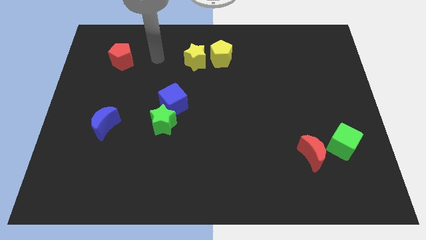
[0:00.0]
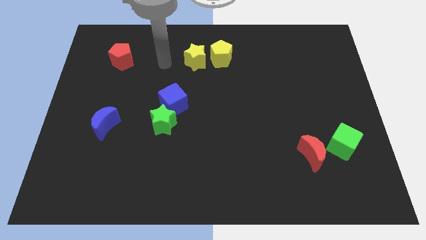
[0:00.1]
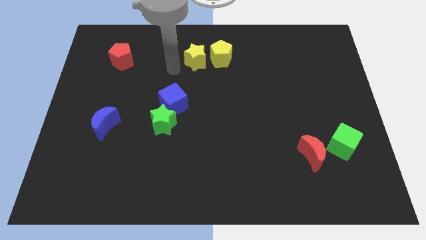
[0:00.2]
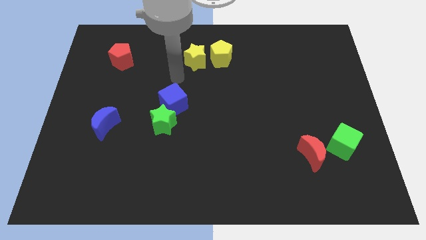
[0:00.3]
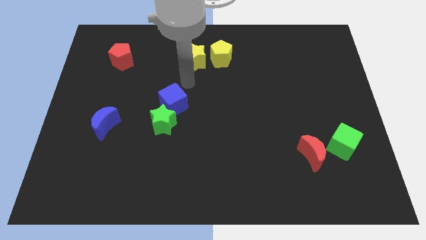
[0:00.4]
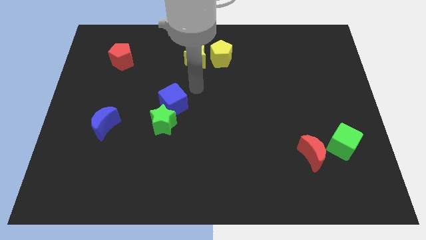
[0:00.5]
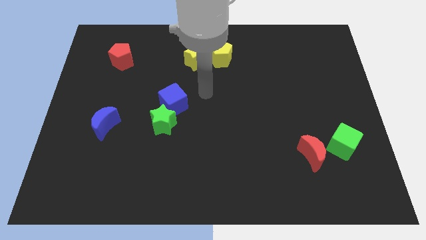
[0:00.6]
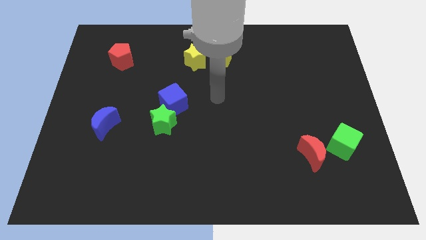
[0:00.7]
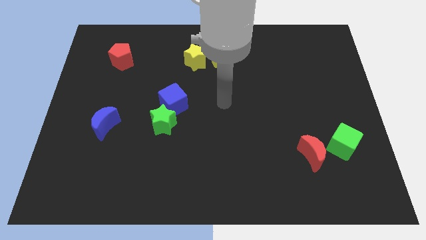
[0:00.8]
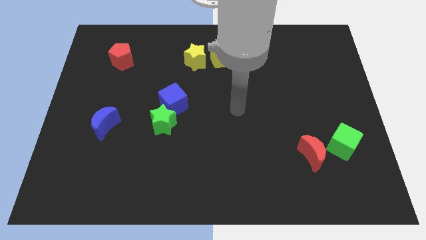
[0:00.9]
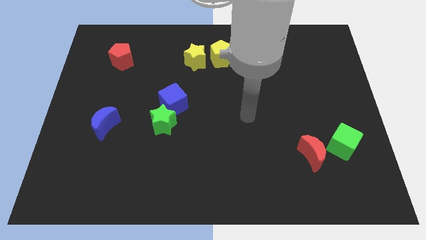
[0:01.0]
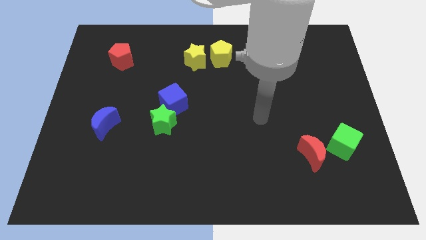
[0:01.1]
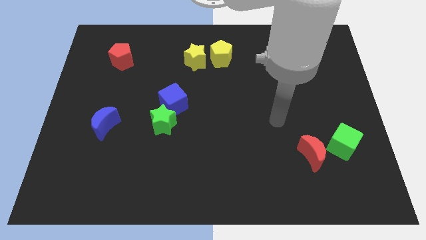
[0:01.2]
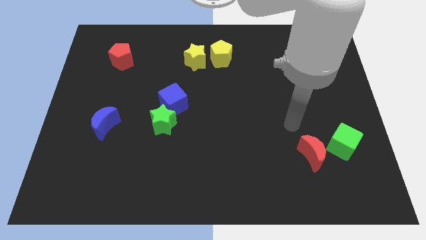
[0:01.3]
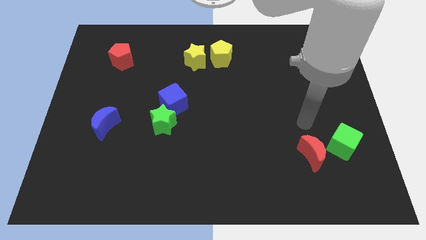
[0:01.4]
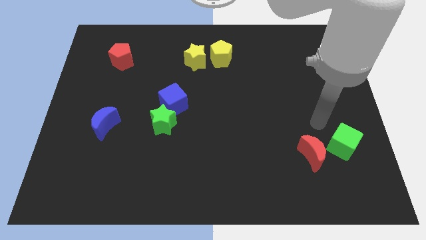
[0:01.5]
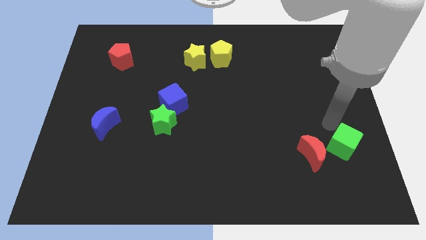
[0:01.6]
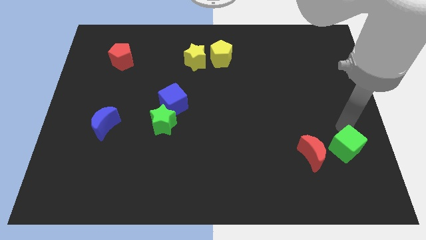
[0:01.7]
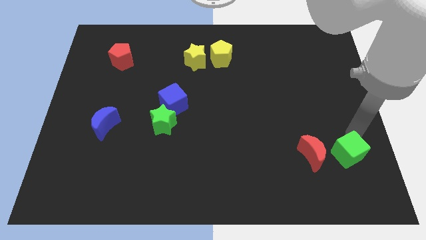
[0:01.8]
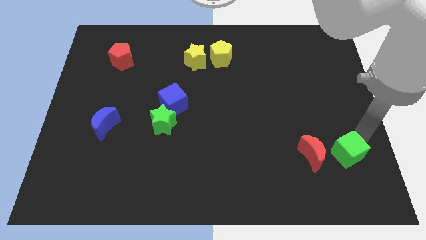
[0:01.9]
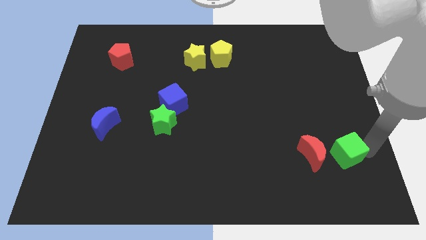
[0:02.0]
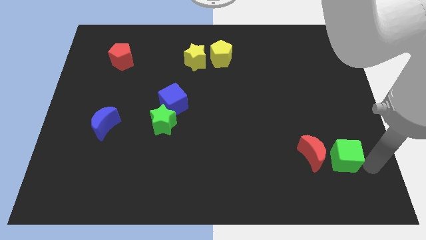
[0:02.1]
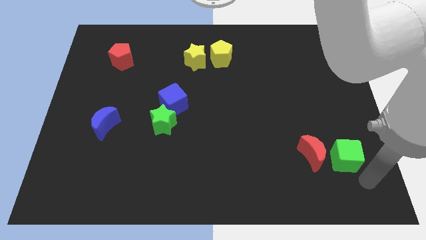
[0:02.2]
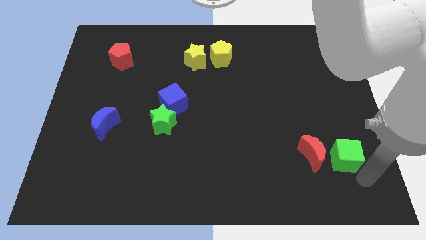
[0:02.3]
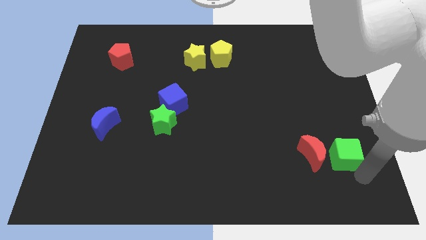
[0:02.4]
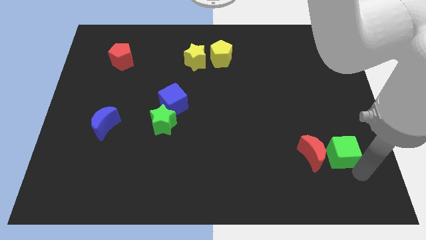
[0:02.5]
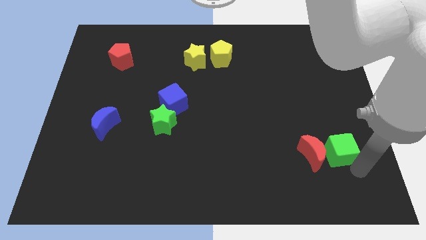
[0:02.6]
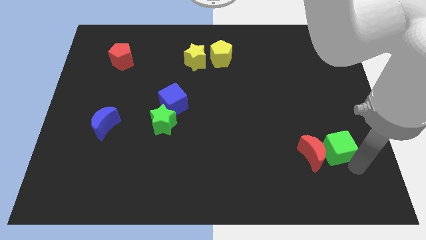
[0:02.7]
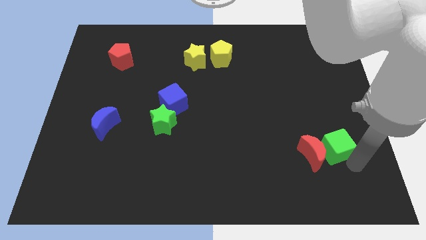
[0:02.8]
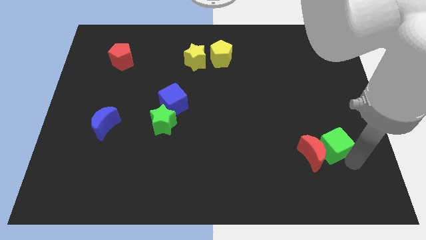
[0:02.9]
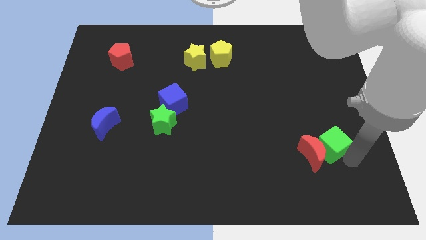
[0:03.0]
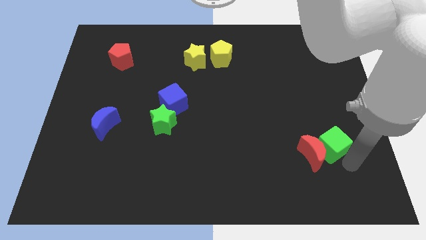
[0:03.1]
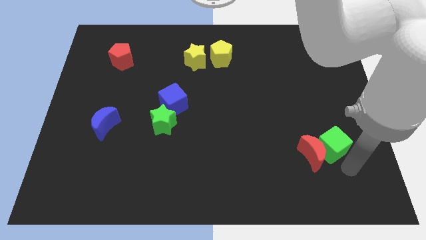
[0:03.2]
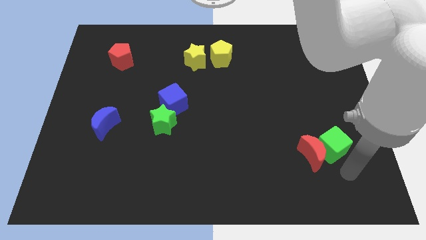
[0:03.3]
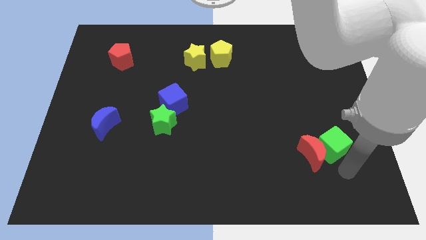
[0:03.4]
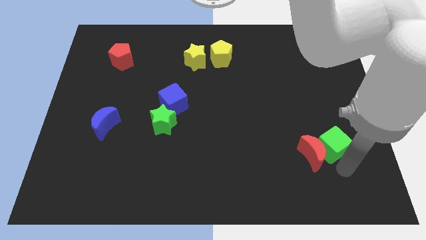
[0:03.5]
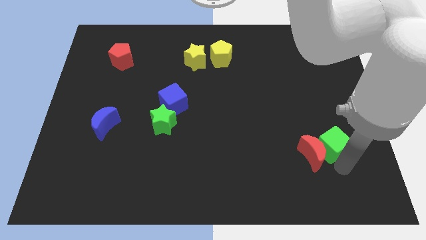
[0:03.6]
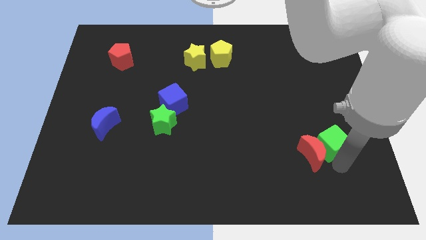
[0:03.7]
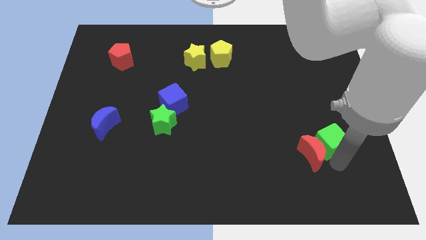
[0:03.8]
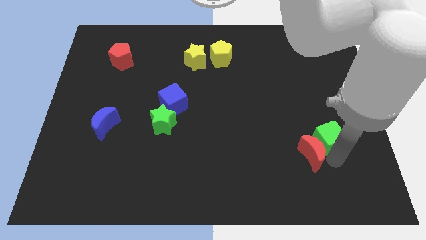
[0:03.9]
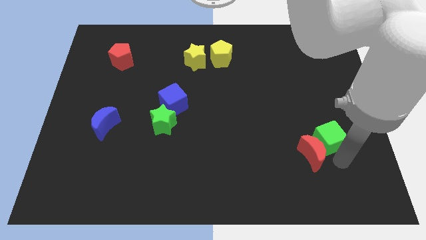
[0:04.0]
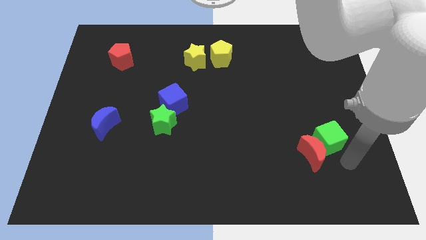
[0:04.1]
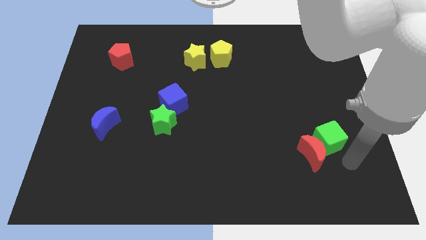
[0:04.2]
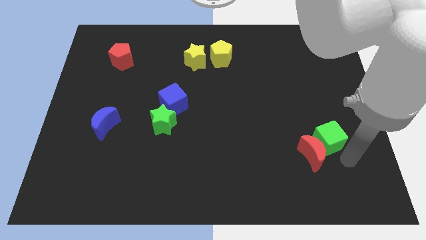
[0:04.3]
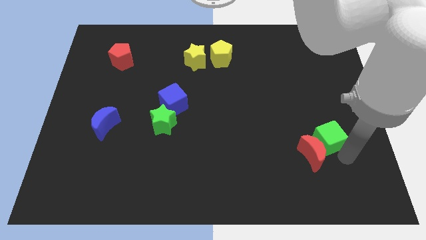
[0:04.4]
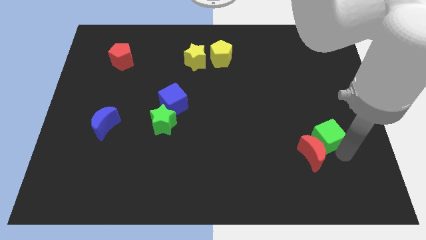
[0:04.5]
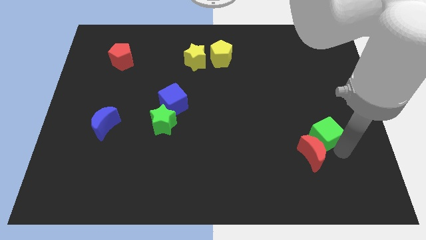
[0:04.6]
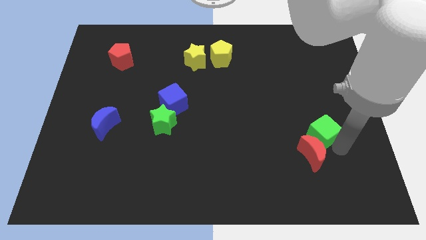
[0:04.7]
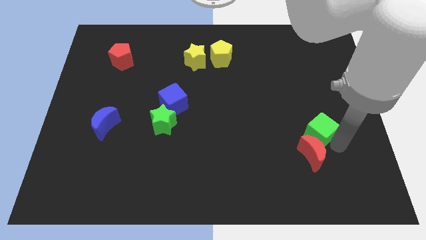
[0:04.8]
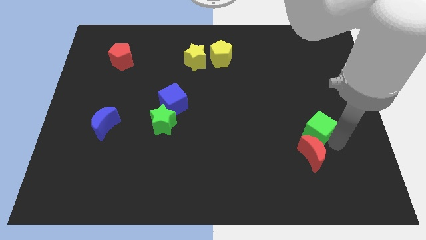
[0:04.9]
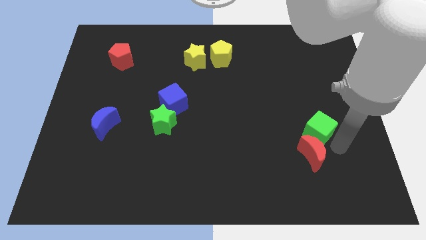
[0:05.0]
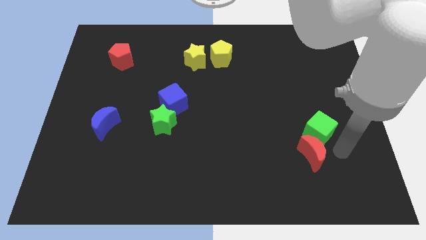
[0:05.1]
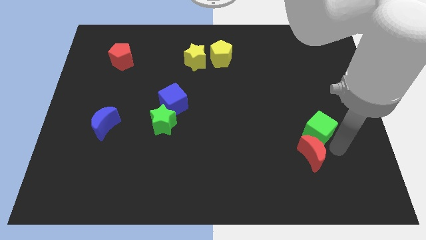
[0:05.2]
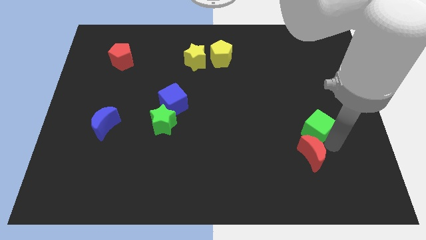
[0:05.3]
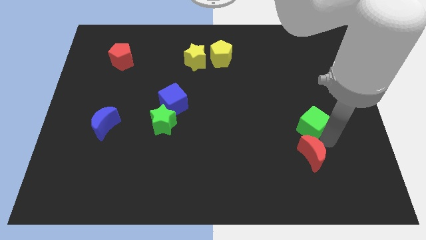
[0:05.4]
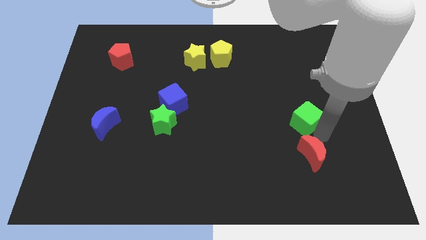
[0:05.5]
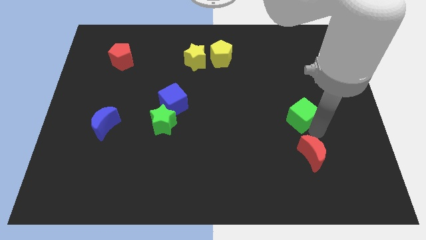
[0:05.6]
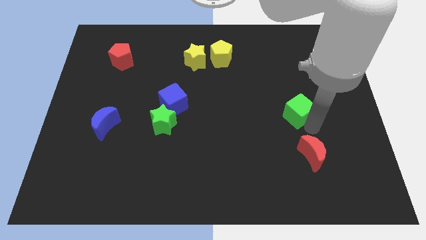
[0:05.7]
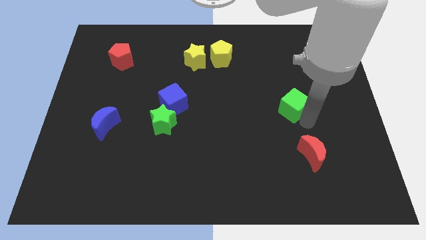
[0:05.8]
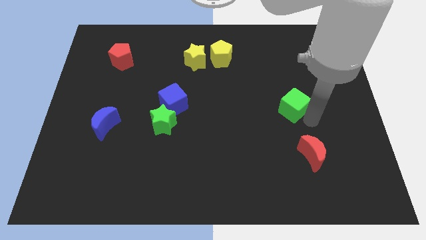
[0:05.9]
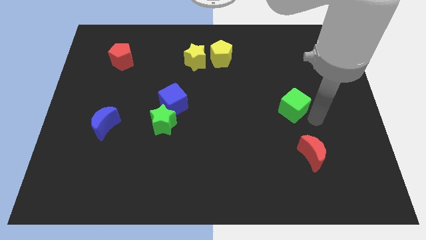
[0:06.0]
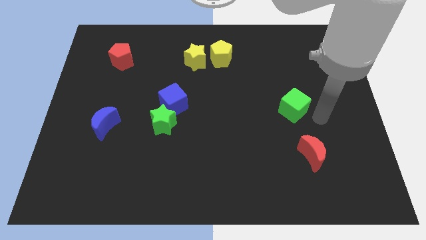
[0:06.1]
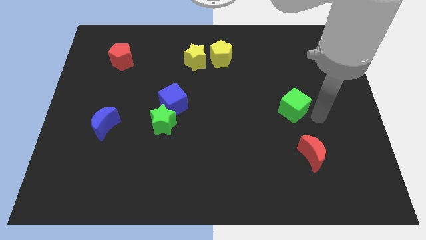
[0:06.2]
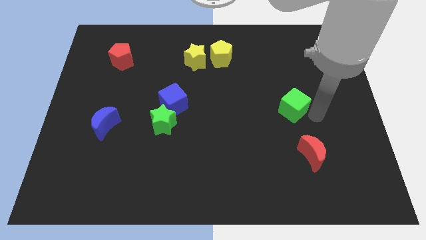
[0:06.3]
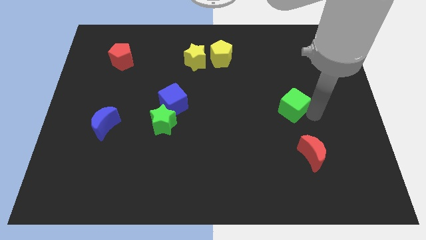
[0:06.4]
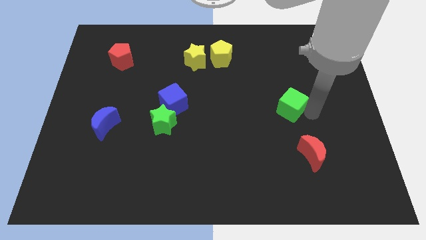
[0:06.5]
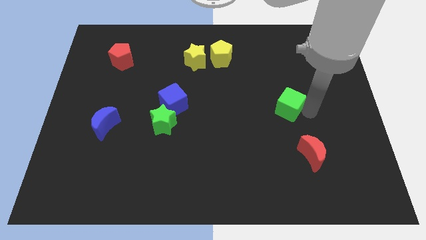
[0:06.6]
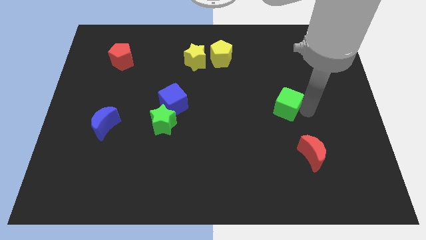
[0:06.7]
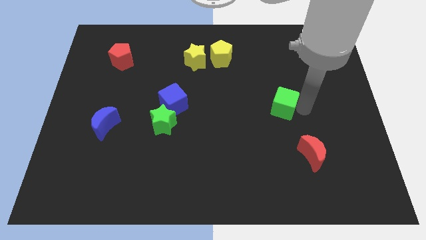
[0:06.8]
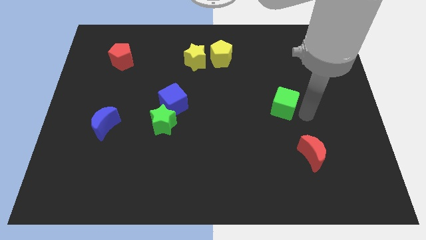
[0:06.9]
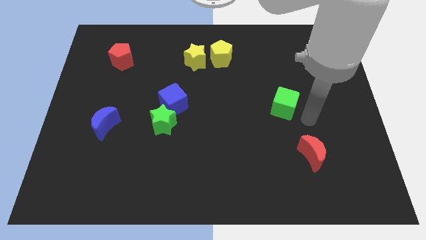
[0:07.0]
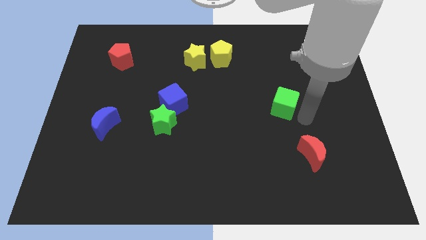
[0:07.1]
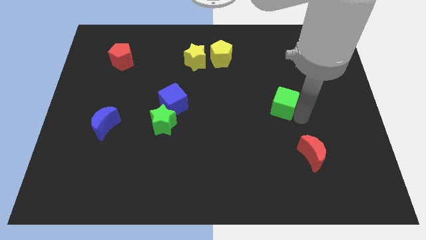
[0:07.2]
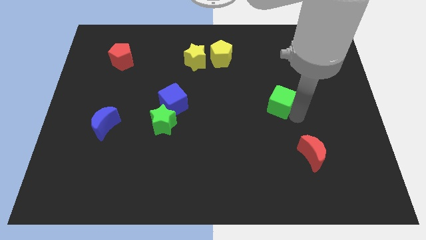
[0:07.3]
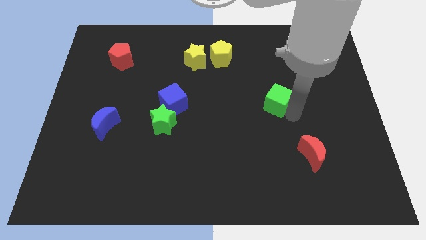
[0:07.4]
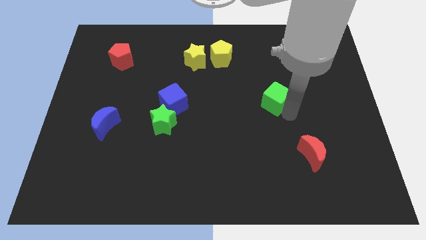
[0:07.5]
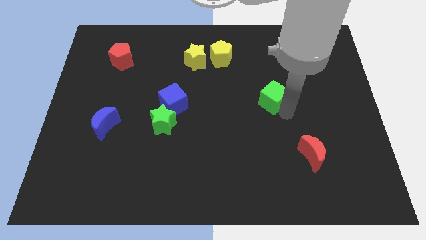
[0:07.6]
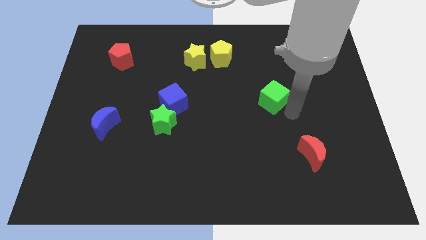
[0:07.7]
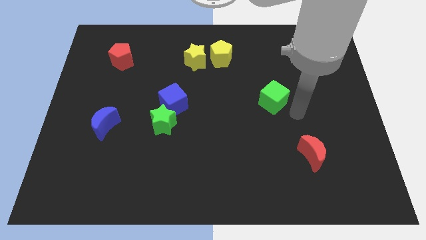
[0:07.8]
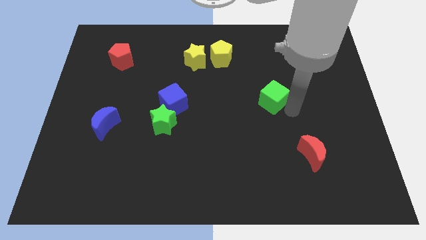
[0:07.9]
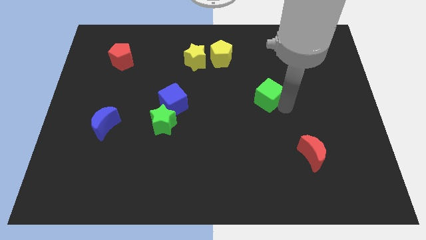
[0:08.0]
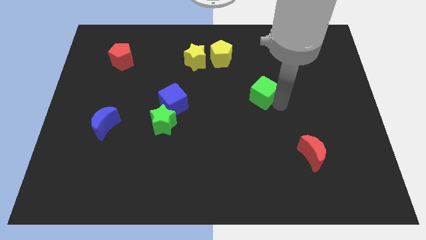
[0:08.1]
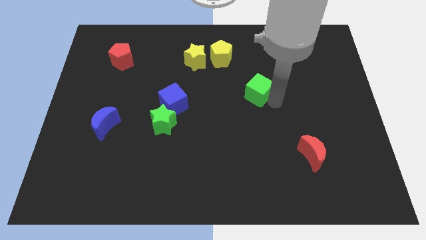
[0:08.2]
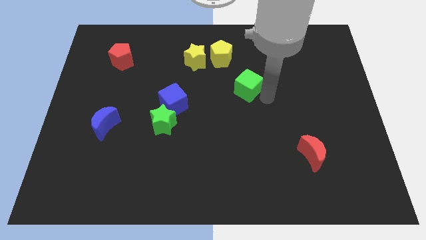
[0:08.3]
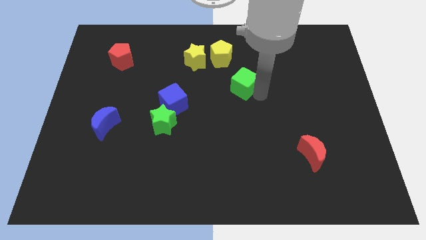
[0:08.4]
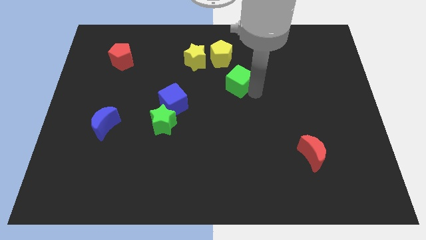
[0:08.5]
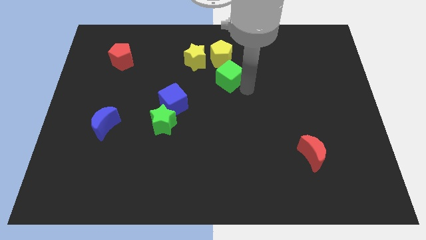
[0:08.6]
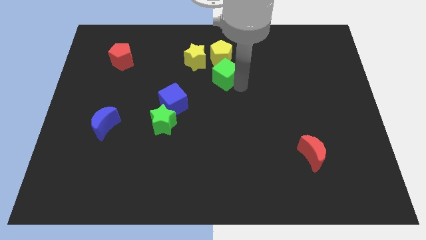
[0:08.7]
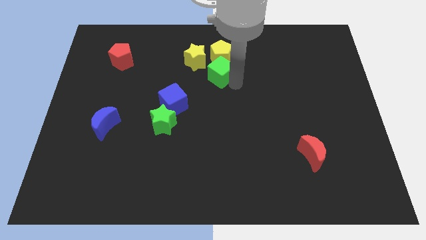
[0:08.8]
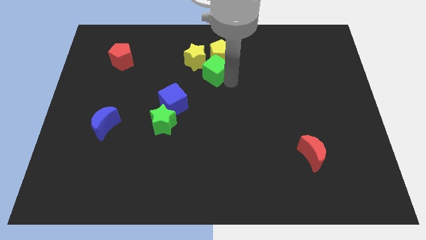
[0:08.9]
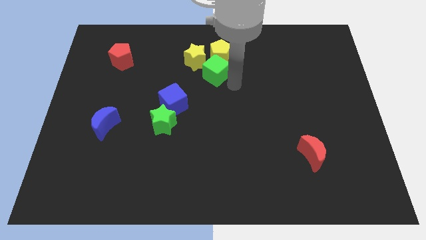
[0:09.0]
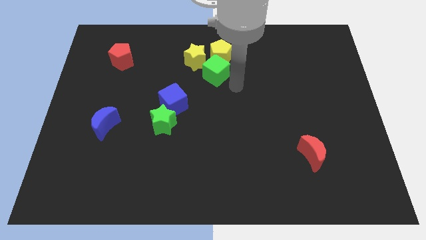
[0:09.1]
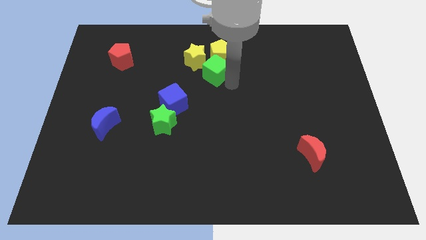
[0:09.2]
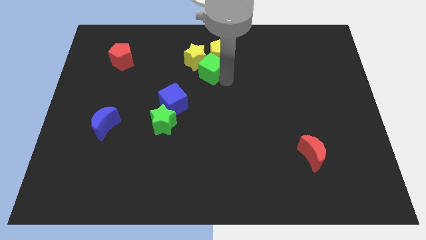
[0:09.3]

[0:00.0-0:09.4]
move the green cube towards the yellow star
